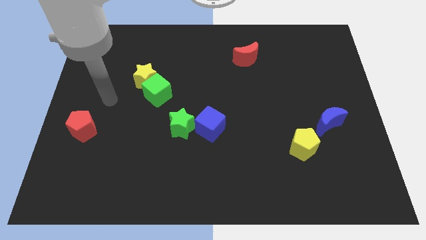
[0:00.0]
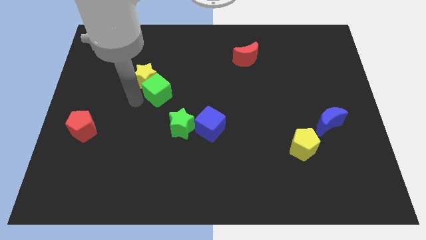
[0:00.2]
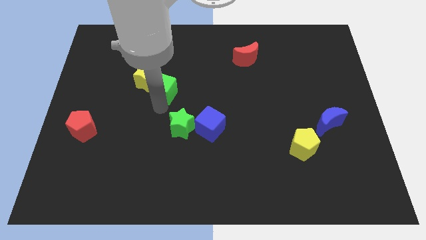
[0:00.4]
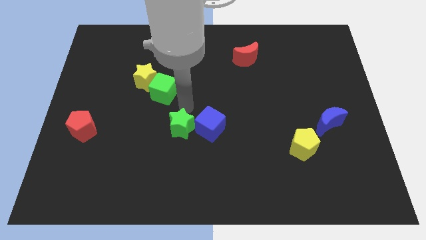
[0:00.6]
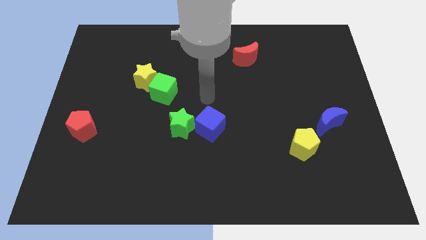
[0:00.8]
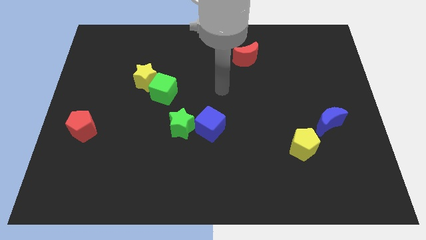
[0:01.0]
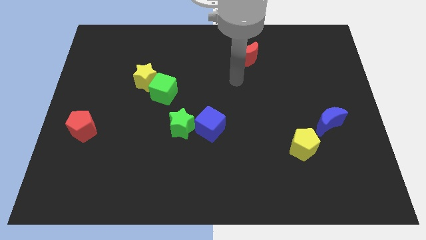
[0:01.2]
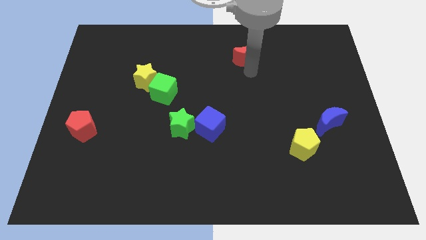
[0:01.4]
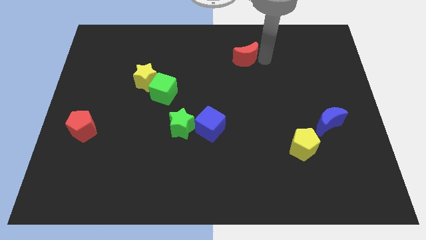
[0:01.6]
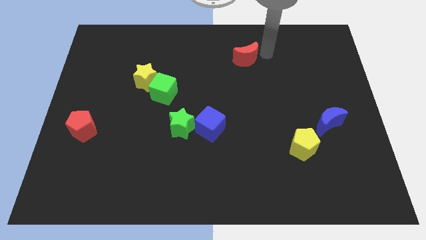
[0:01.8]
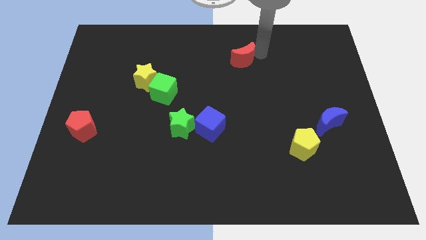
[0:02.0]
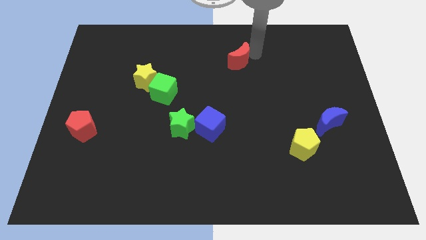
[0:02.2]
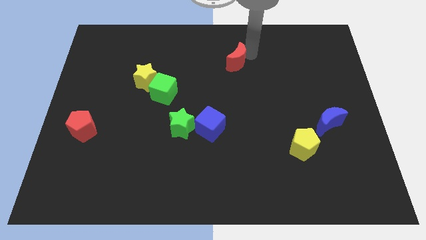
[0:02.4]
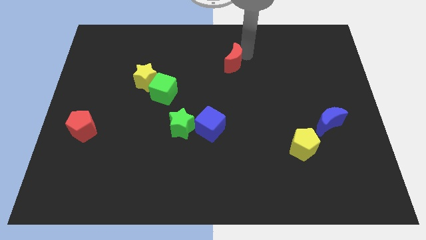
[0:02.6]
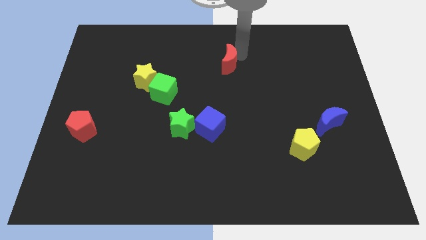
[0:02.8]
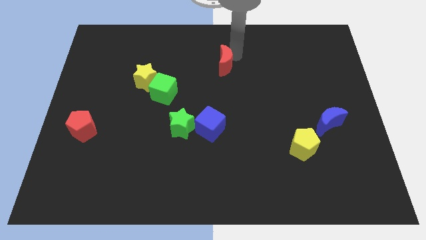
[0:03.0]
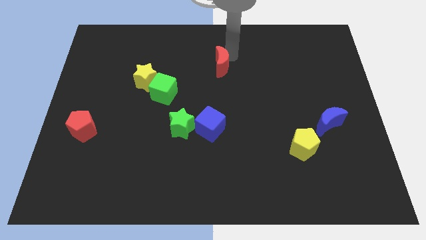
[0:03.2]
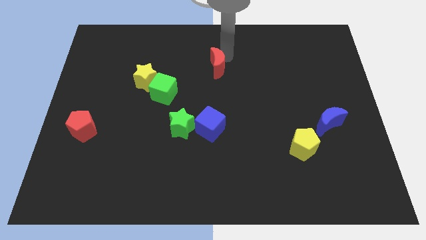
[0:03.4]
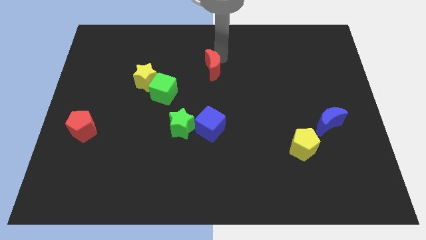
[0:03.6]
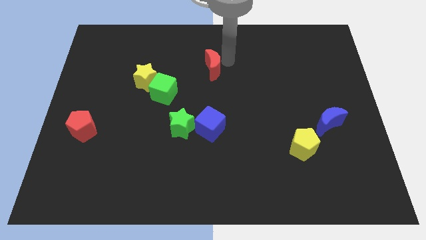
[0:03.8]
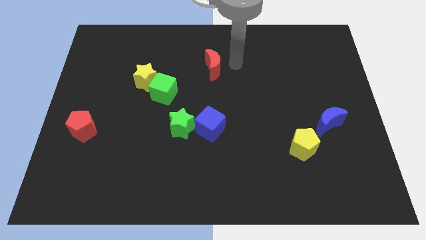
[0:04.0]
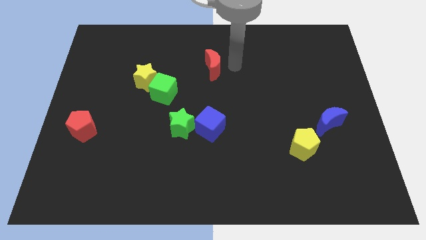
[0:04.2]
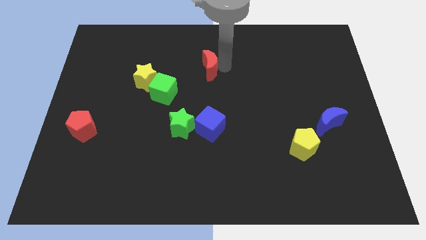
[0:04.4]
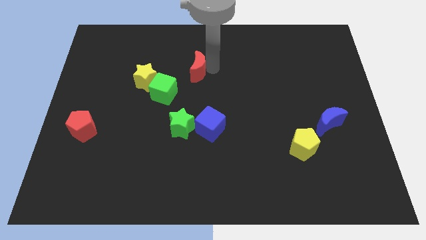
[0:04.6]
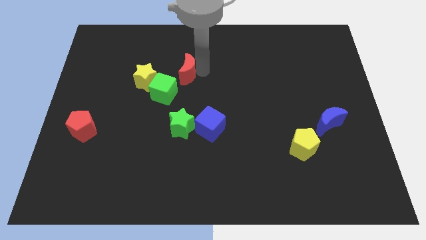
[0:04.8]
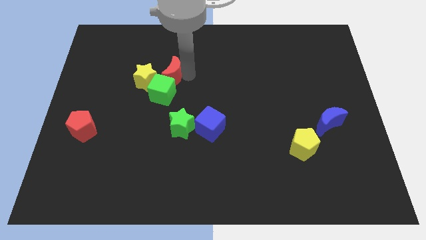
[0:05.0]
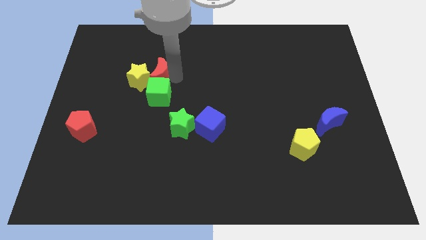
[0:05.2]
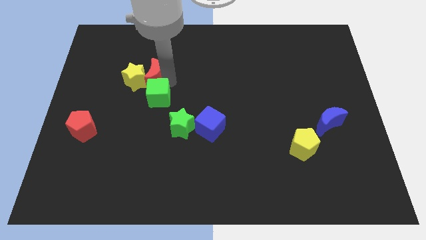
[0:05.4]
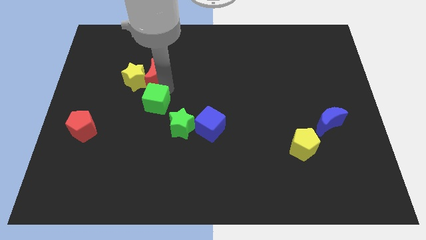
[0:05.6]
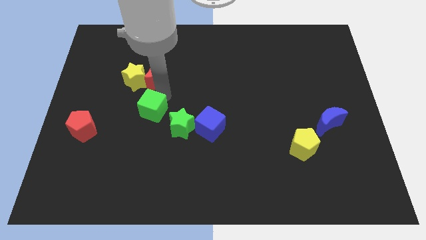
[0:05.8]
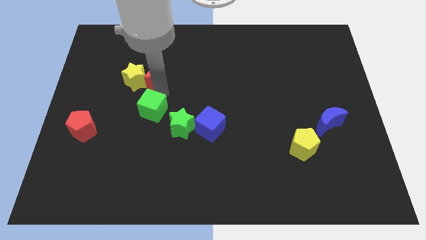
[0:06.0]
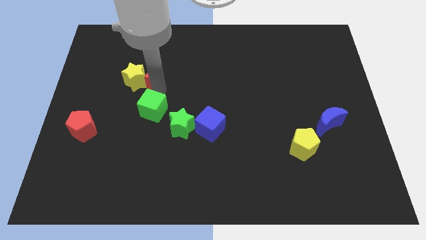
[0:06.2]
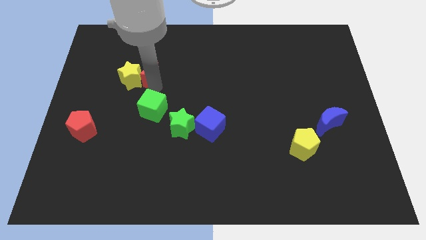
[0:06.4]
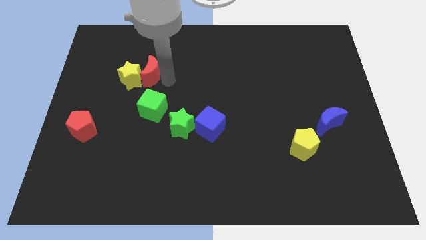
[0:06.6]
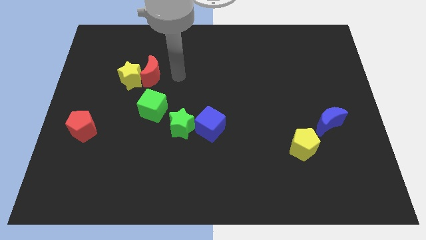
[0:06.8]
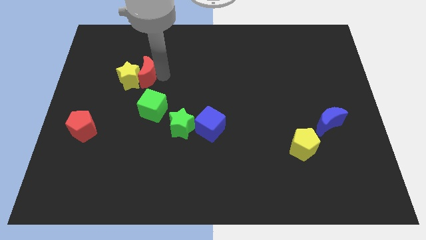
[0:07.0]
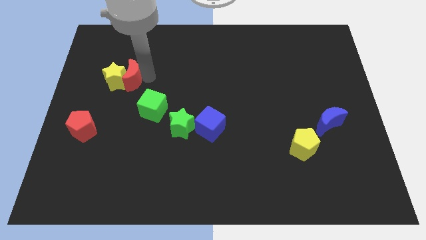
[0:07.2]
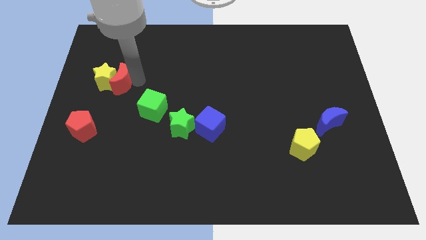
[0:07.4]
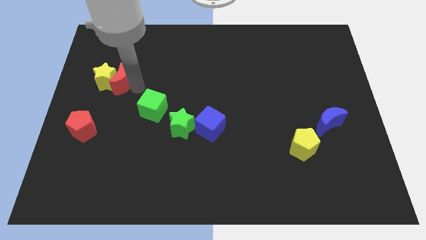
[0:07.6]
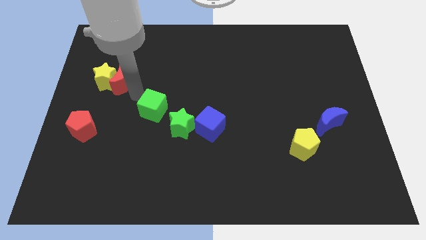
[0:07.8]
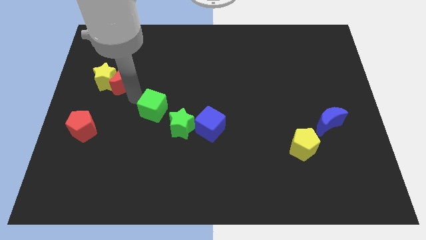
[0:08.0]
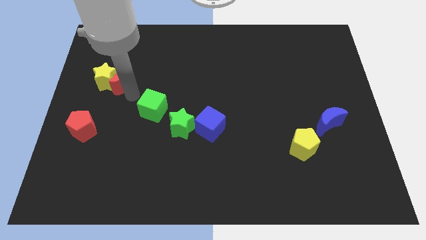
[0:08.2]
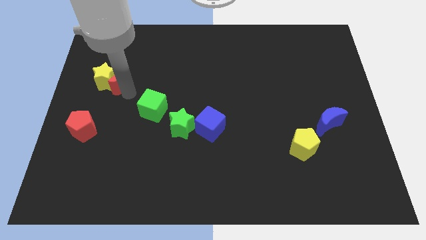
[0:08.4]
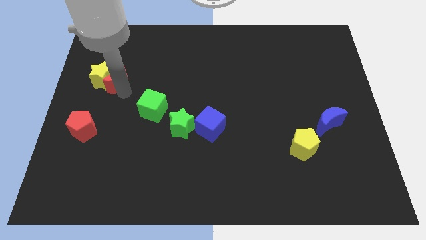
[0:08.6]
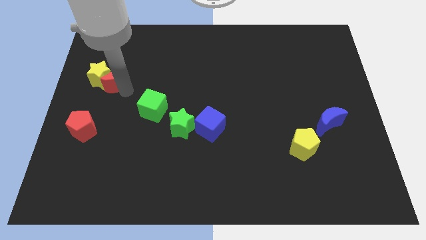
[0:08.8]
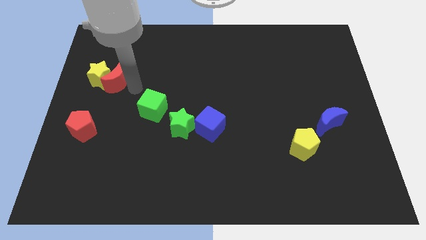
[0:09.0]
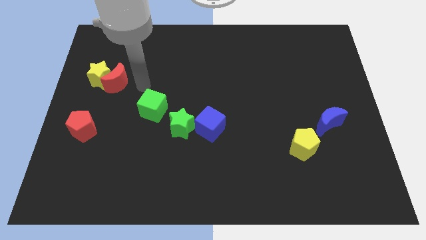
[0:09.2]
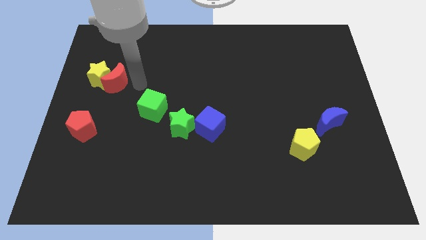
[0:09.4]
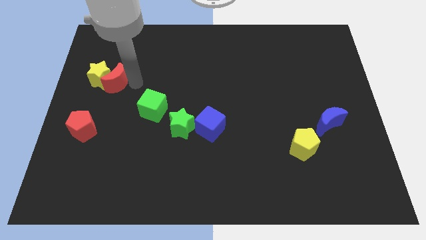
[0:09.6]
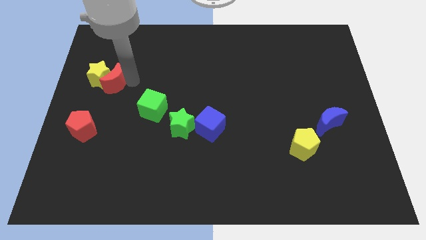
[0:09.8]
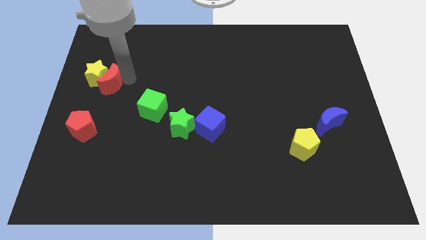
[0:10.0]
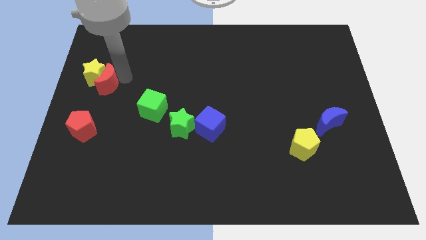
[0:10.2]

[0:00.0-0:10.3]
push the red moon to the left side of the board

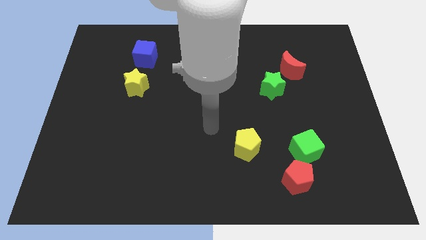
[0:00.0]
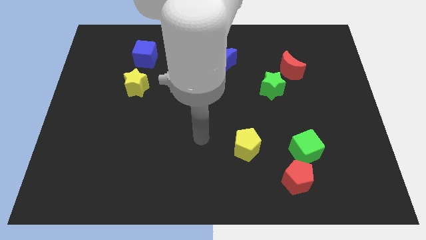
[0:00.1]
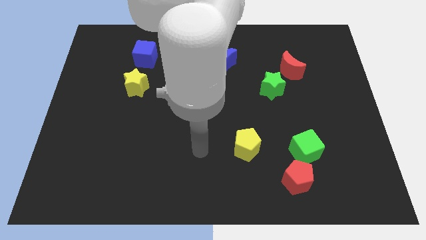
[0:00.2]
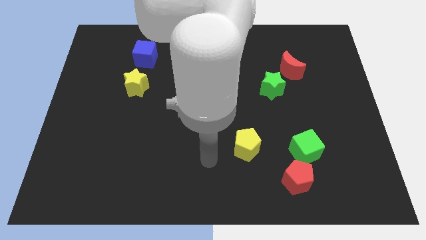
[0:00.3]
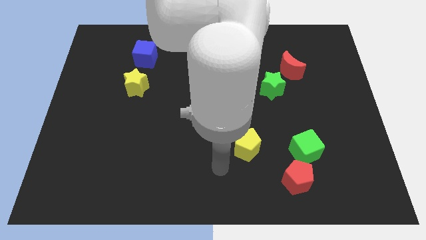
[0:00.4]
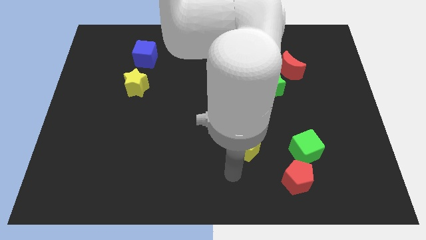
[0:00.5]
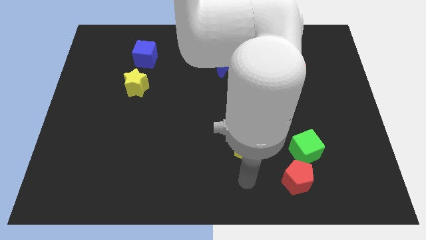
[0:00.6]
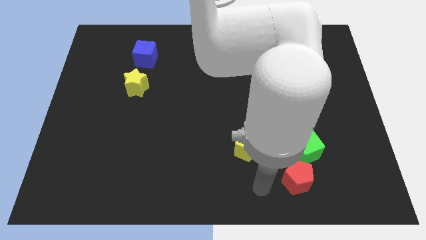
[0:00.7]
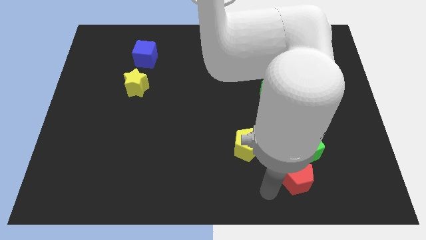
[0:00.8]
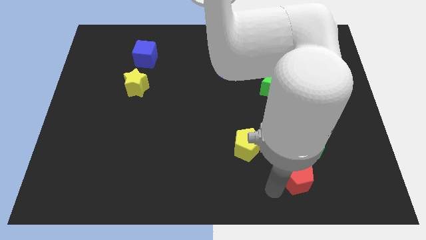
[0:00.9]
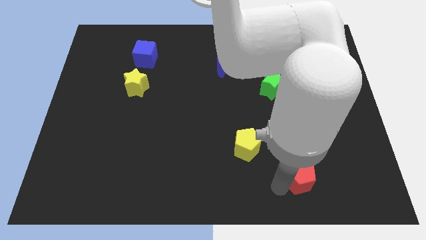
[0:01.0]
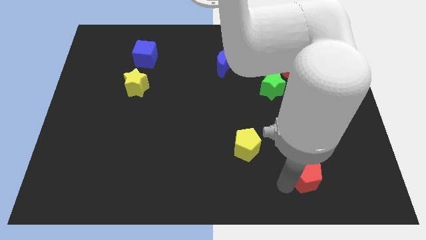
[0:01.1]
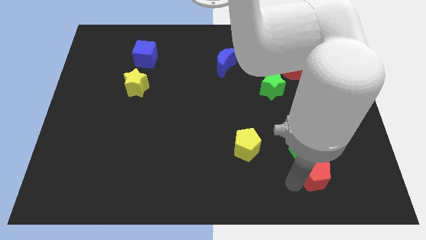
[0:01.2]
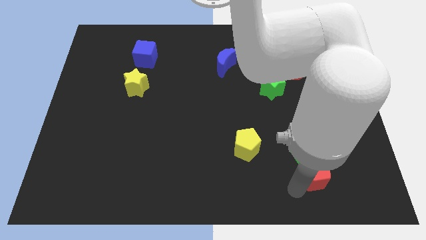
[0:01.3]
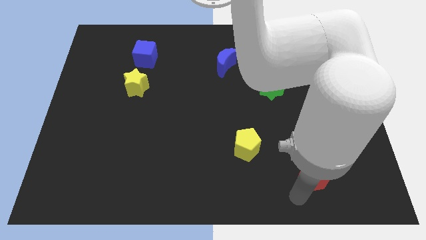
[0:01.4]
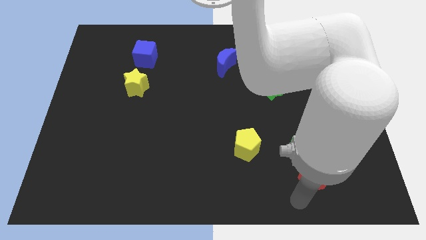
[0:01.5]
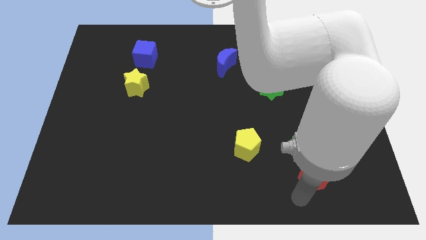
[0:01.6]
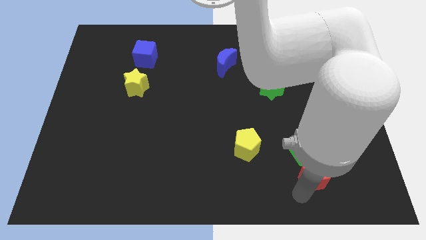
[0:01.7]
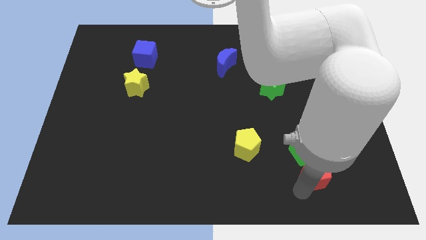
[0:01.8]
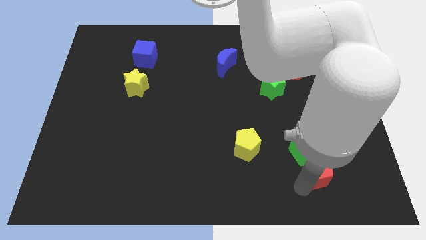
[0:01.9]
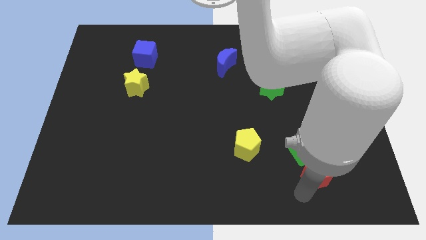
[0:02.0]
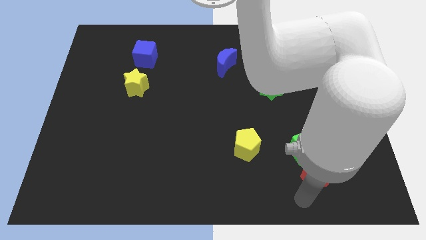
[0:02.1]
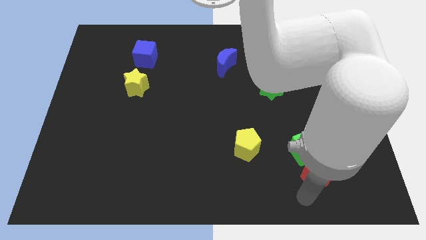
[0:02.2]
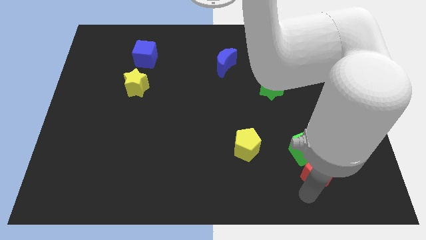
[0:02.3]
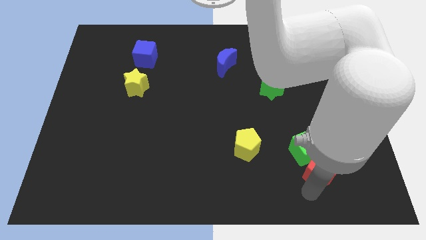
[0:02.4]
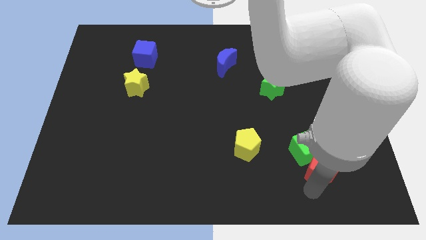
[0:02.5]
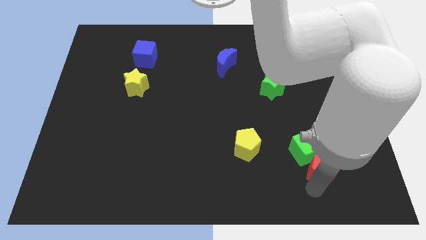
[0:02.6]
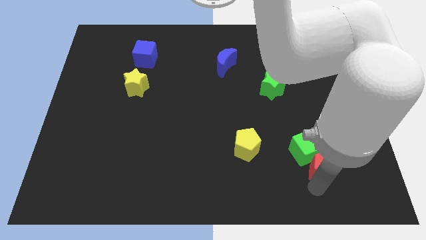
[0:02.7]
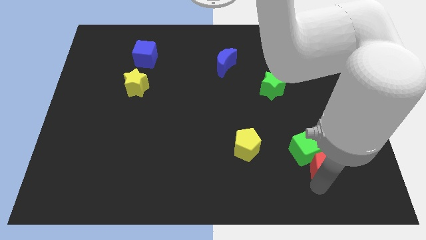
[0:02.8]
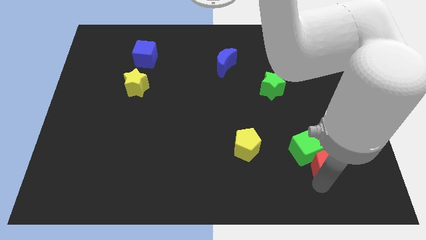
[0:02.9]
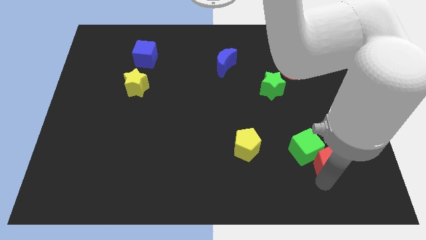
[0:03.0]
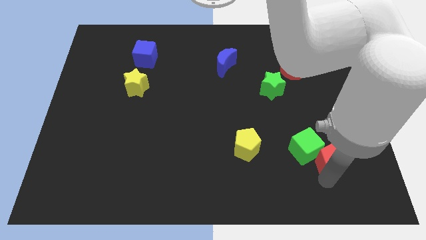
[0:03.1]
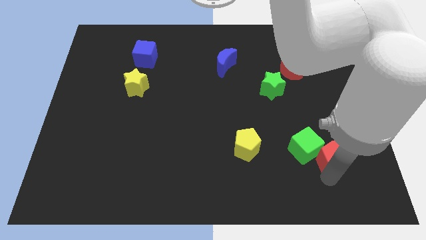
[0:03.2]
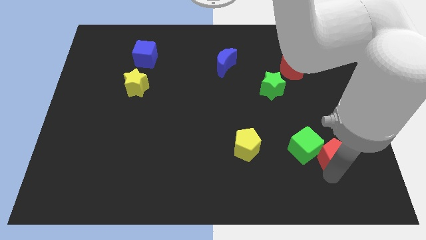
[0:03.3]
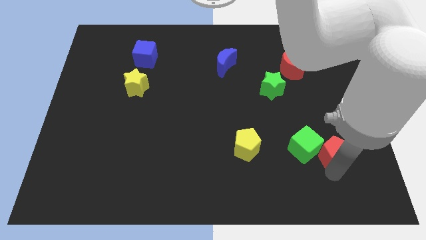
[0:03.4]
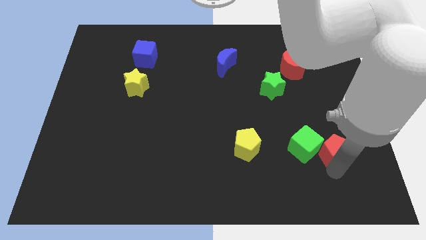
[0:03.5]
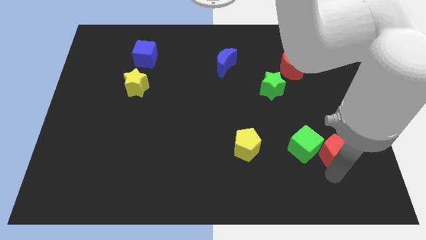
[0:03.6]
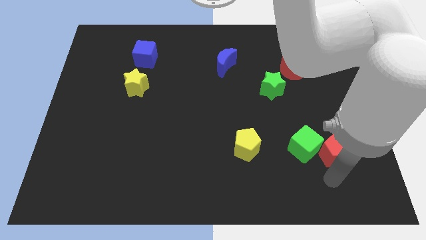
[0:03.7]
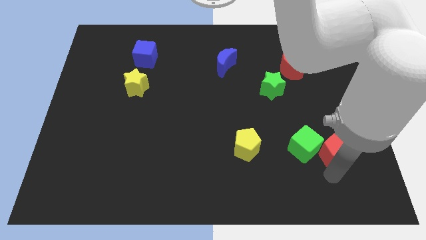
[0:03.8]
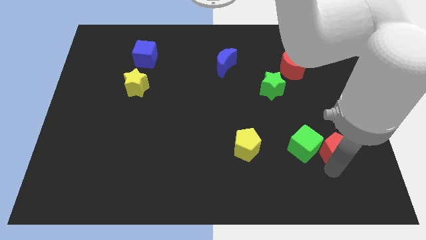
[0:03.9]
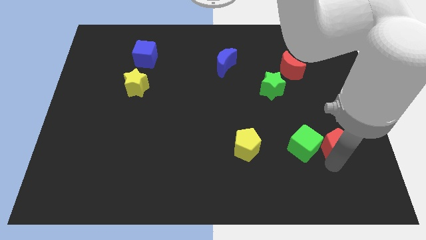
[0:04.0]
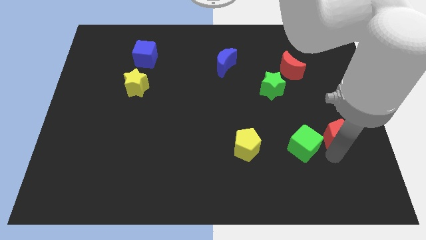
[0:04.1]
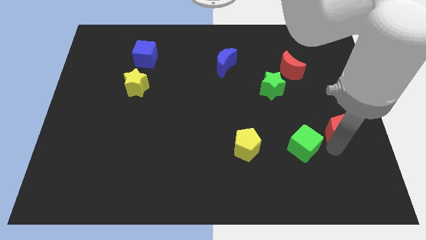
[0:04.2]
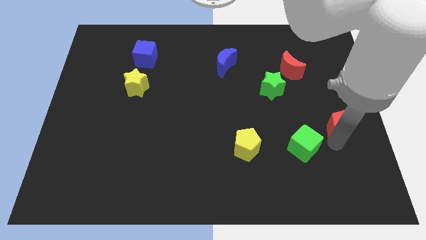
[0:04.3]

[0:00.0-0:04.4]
move the red pentagon to the right side of the board
